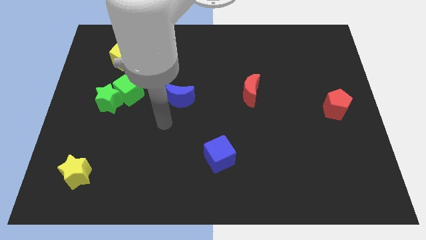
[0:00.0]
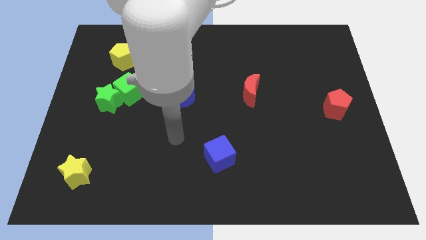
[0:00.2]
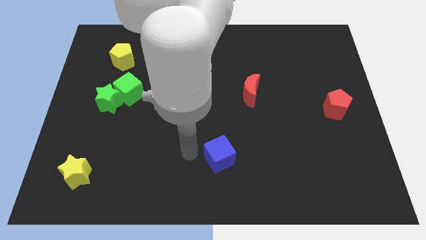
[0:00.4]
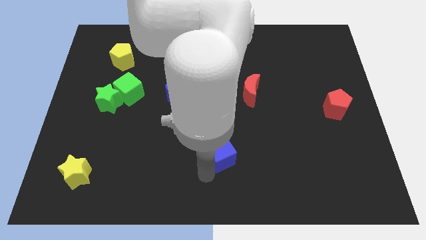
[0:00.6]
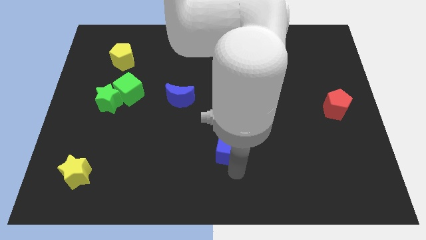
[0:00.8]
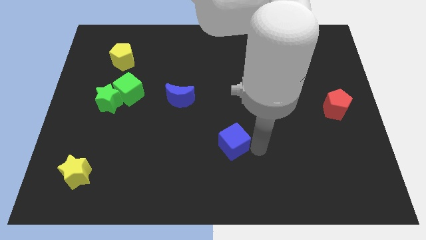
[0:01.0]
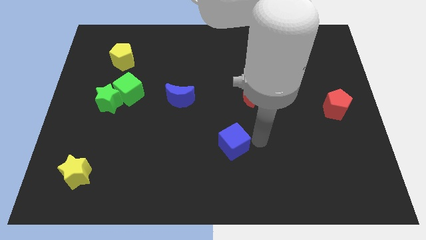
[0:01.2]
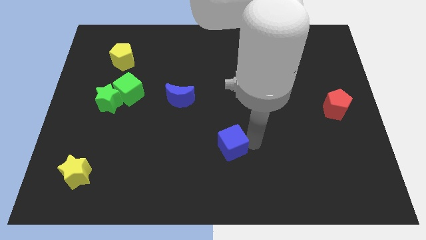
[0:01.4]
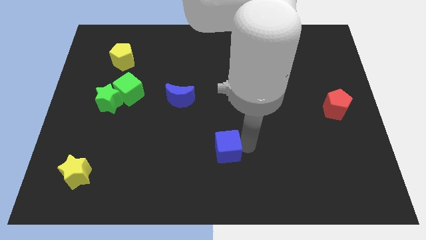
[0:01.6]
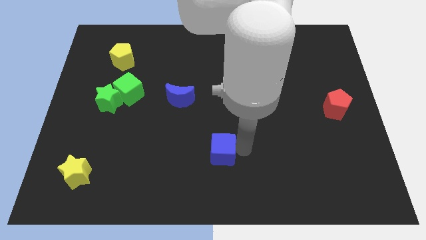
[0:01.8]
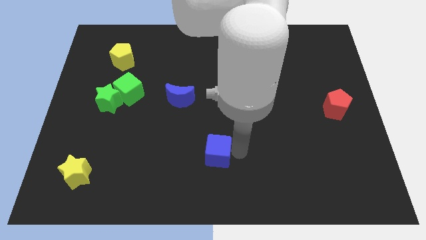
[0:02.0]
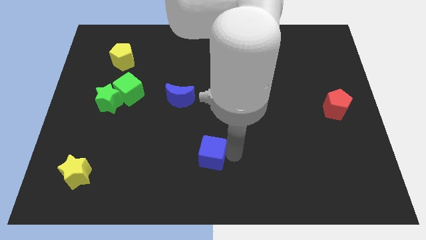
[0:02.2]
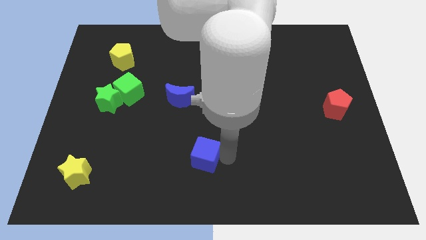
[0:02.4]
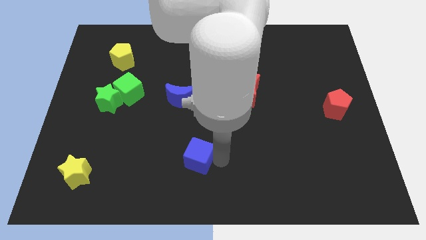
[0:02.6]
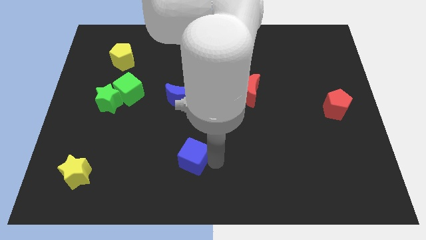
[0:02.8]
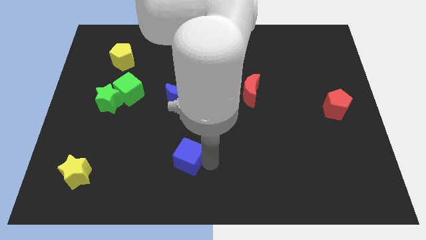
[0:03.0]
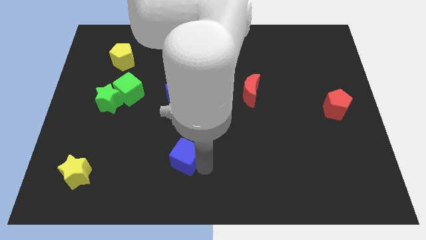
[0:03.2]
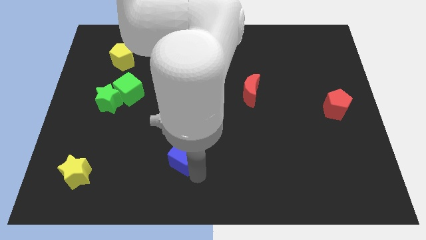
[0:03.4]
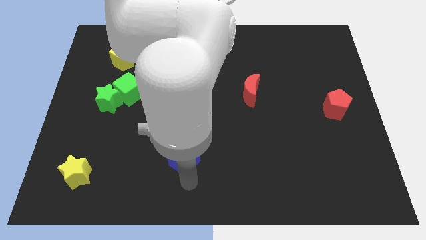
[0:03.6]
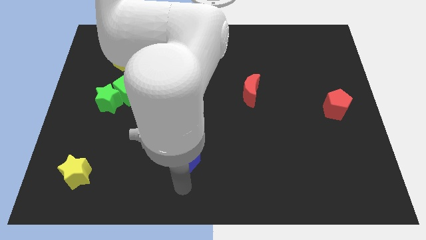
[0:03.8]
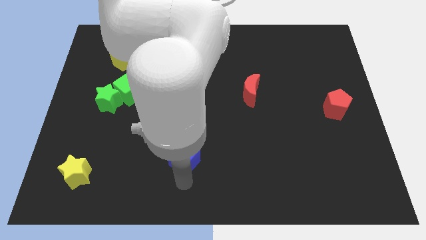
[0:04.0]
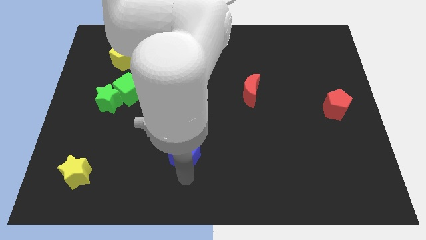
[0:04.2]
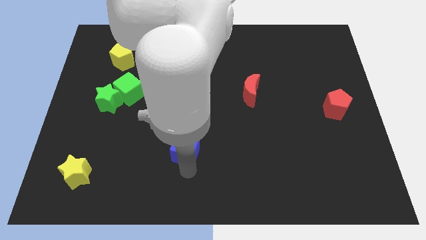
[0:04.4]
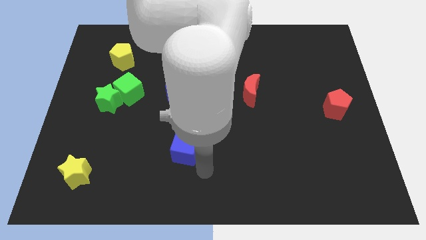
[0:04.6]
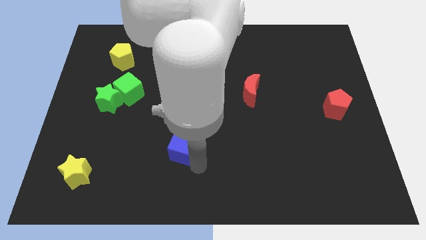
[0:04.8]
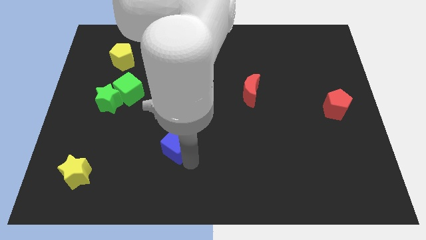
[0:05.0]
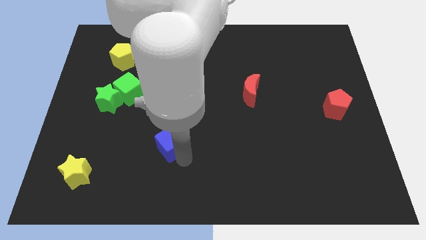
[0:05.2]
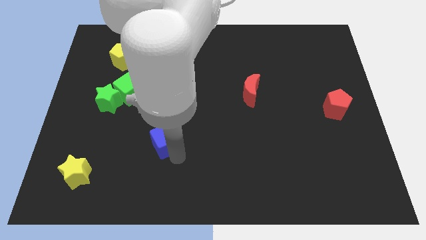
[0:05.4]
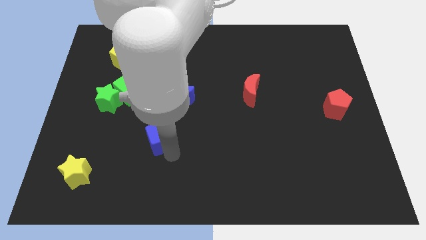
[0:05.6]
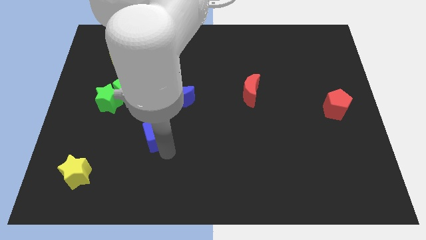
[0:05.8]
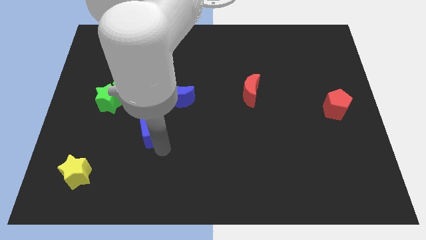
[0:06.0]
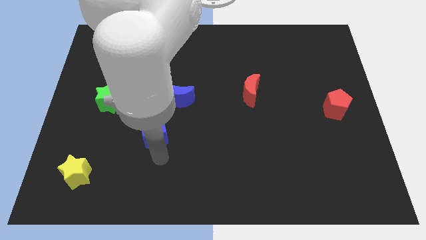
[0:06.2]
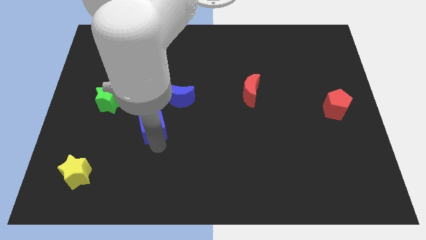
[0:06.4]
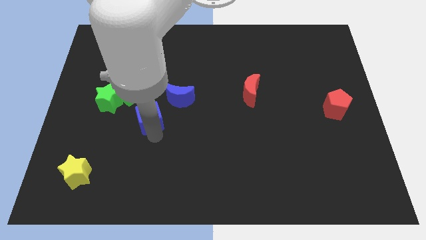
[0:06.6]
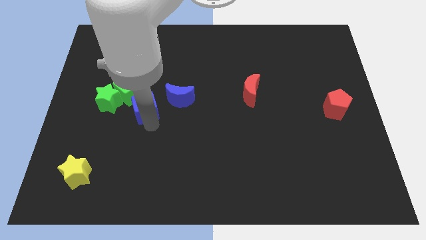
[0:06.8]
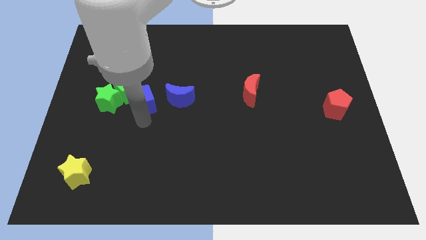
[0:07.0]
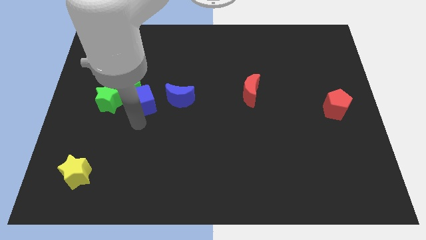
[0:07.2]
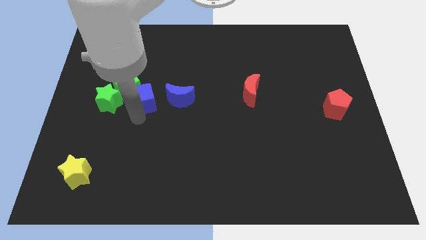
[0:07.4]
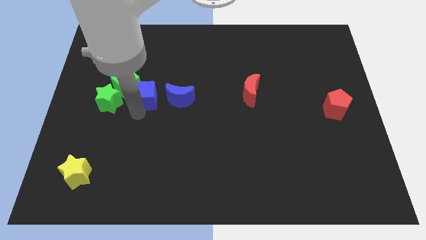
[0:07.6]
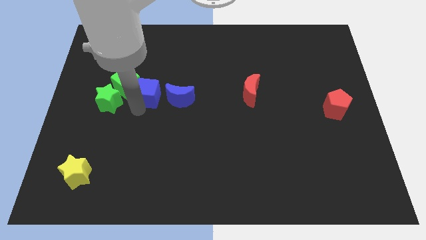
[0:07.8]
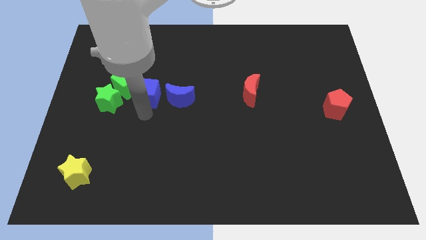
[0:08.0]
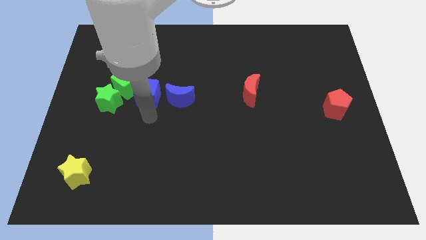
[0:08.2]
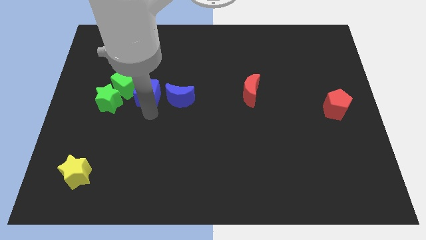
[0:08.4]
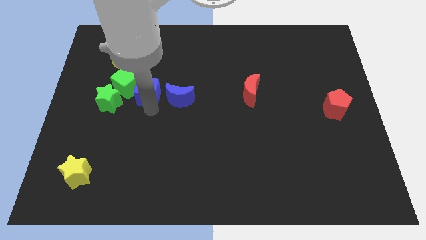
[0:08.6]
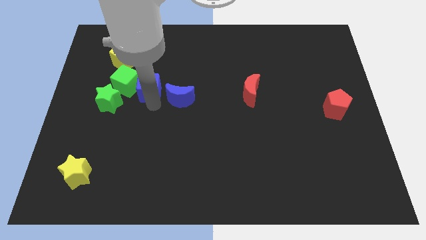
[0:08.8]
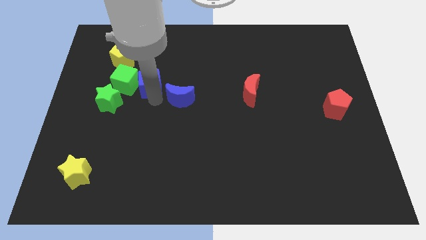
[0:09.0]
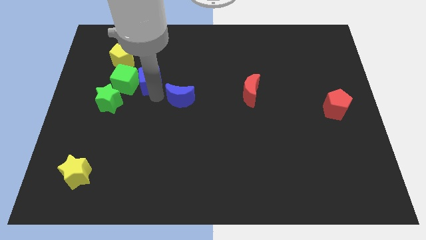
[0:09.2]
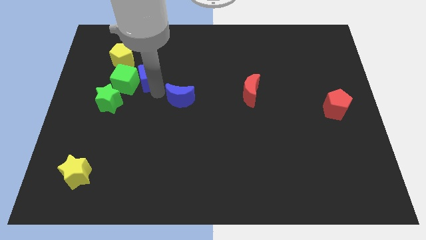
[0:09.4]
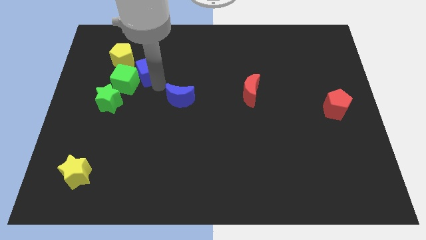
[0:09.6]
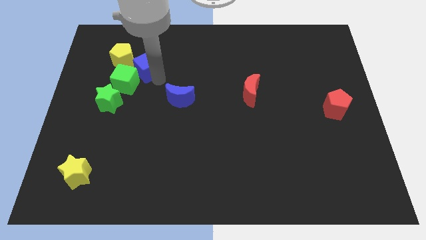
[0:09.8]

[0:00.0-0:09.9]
push the blue cube to the top of the green cube

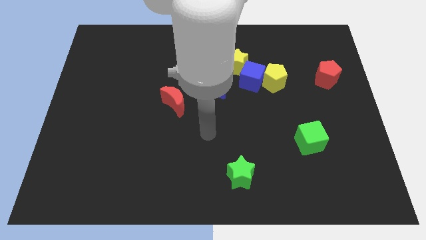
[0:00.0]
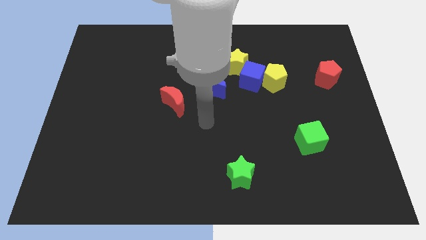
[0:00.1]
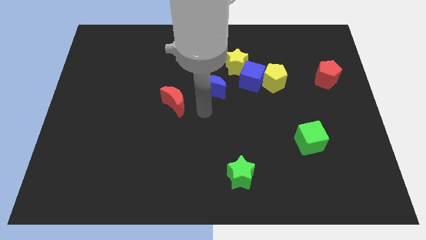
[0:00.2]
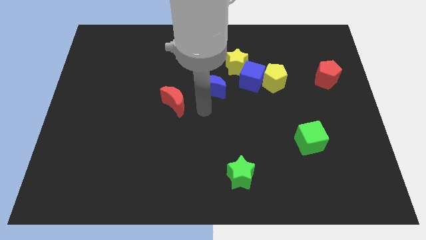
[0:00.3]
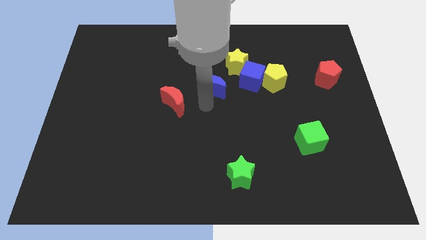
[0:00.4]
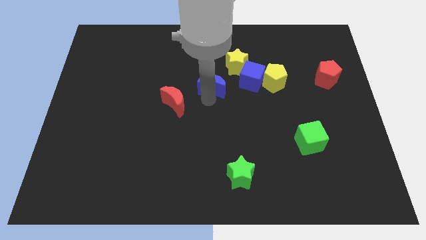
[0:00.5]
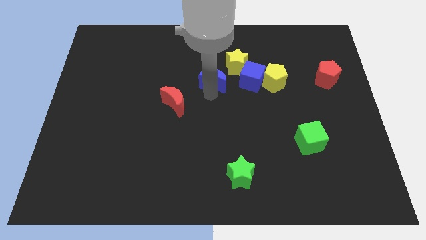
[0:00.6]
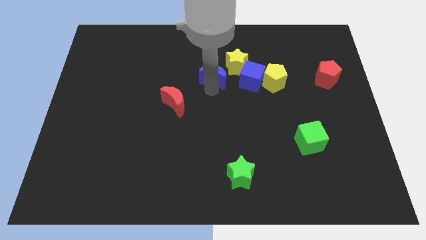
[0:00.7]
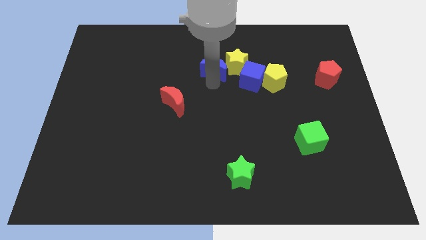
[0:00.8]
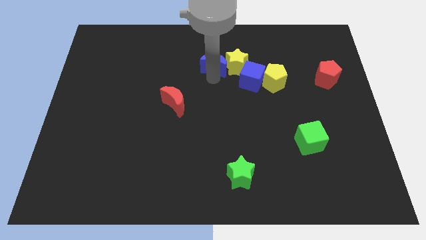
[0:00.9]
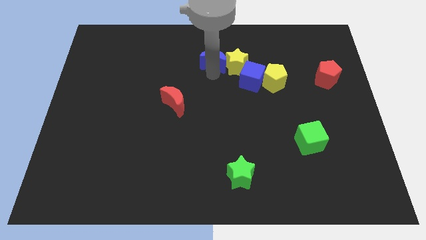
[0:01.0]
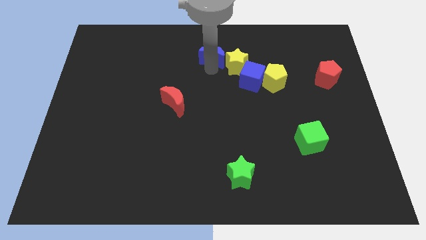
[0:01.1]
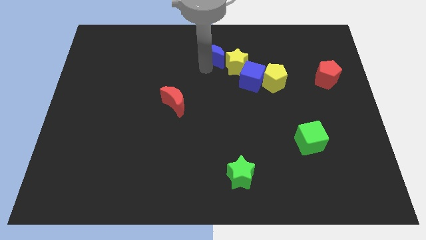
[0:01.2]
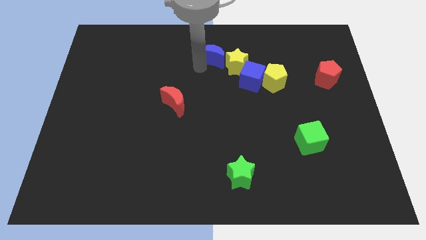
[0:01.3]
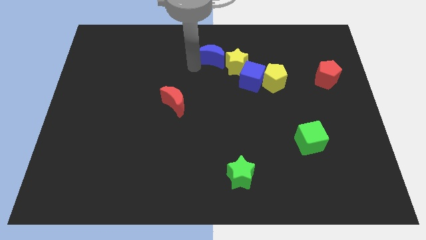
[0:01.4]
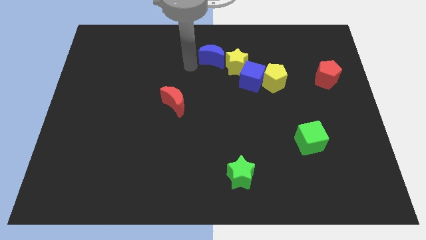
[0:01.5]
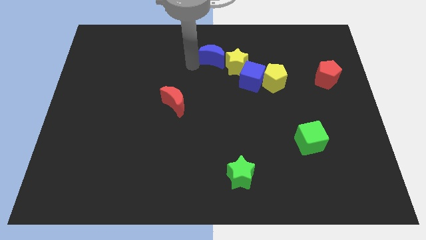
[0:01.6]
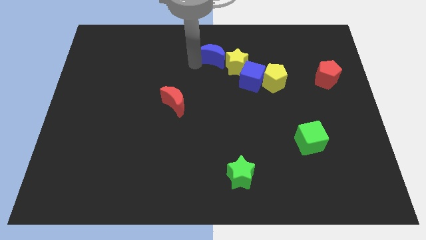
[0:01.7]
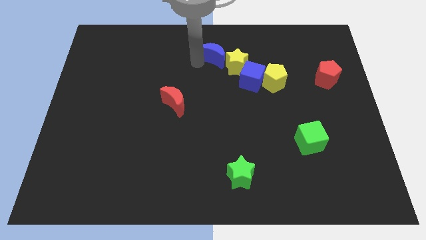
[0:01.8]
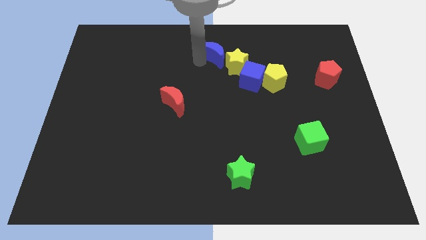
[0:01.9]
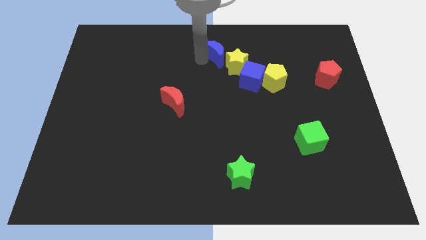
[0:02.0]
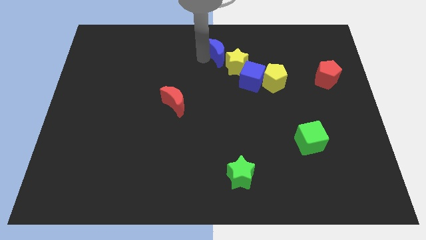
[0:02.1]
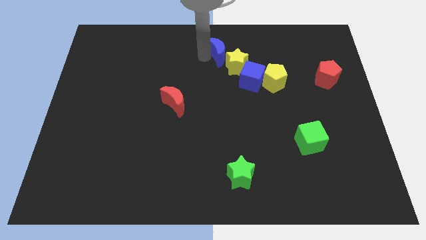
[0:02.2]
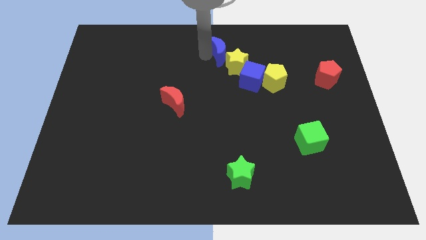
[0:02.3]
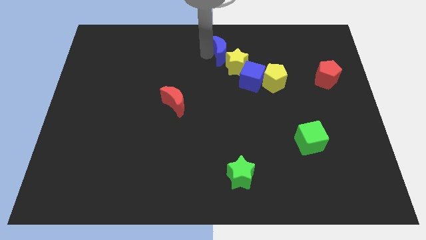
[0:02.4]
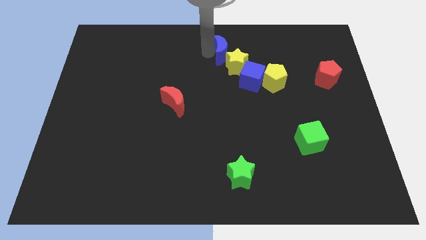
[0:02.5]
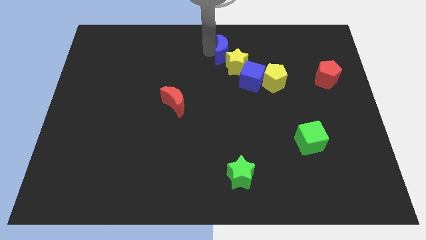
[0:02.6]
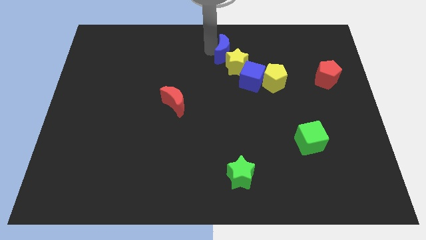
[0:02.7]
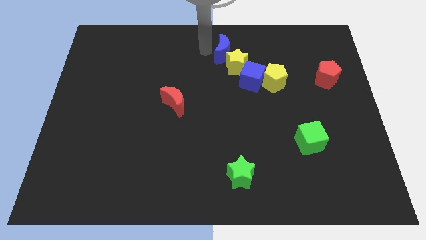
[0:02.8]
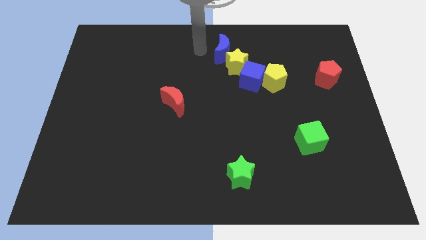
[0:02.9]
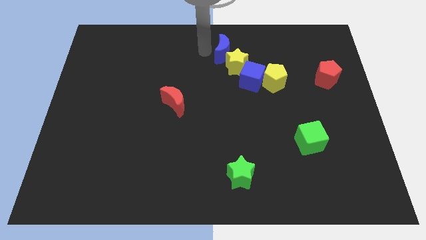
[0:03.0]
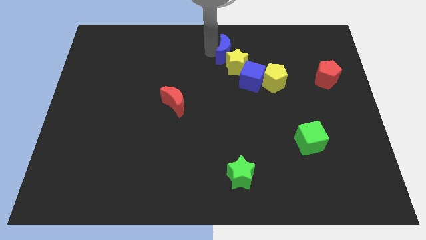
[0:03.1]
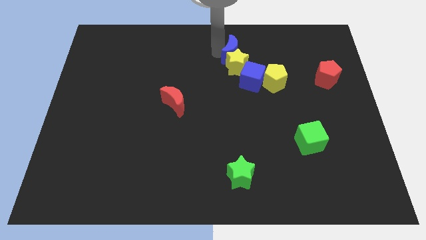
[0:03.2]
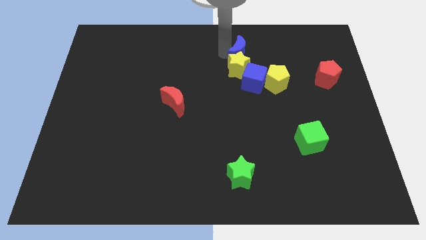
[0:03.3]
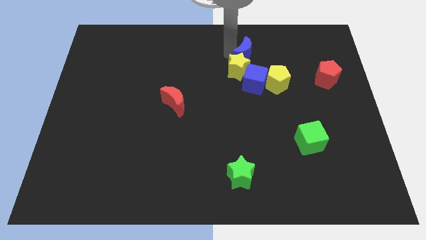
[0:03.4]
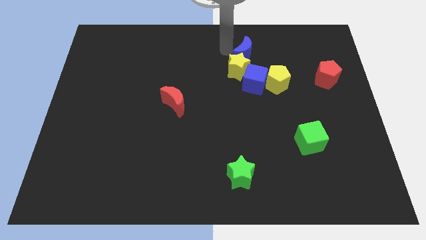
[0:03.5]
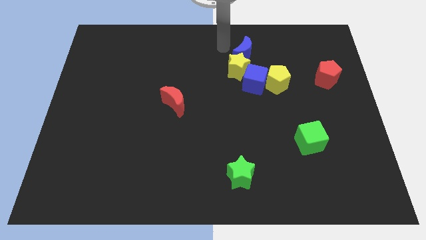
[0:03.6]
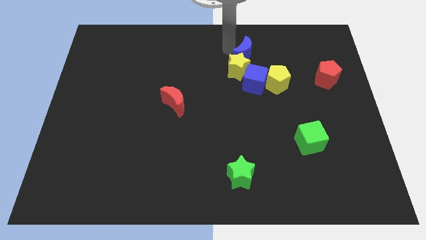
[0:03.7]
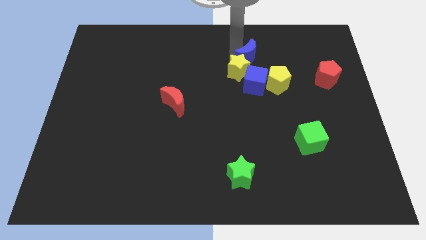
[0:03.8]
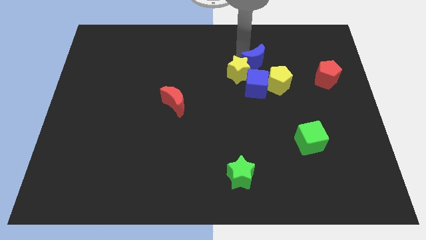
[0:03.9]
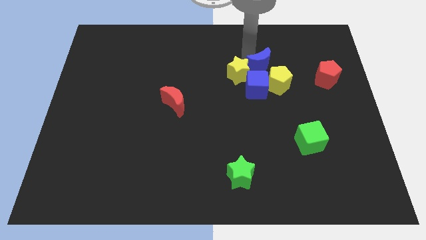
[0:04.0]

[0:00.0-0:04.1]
push the blue moon diagonally up and to the right of the blue cube
